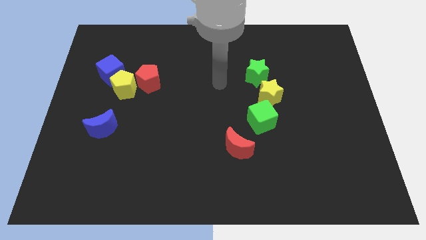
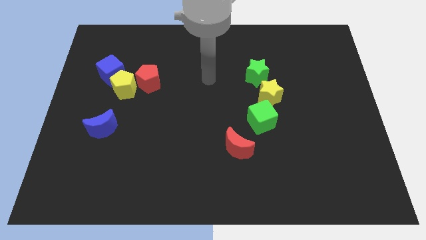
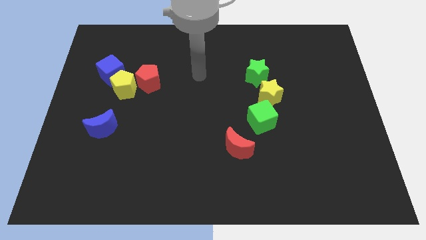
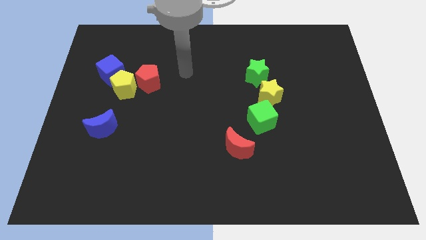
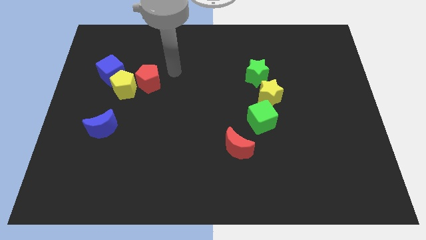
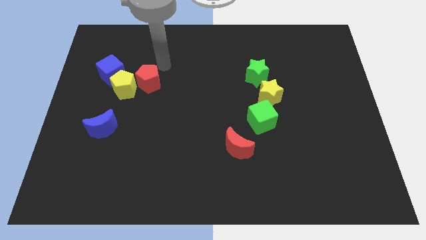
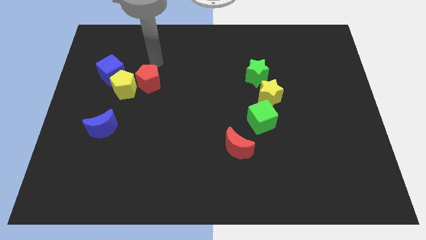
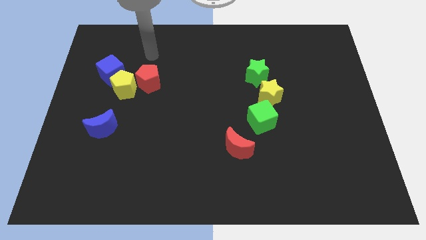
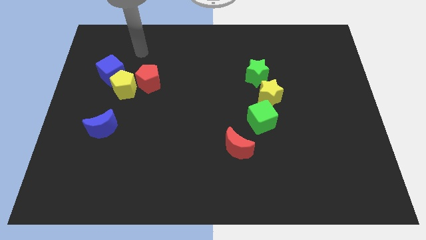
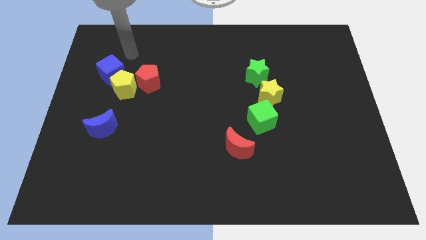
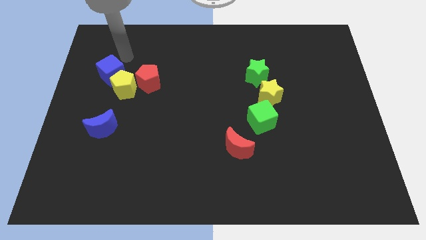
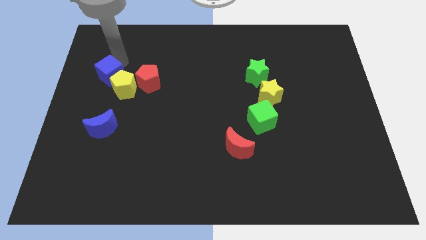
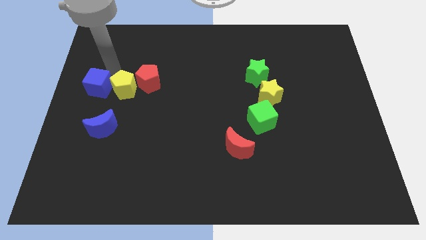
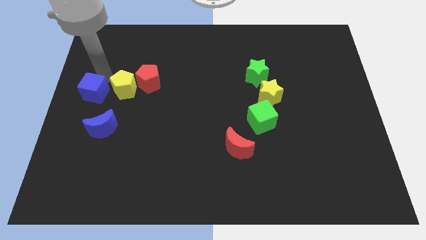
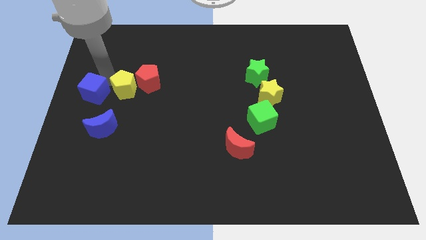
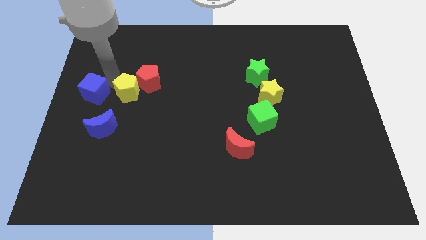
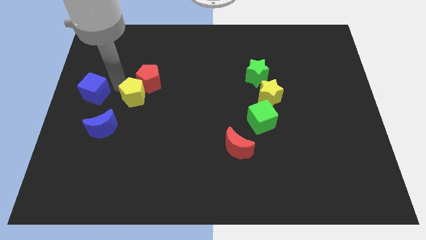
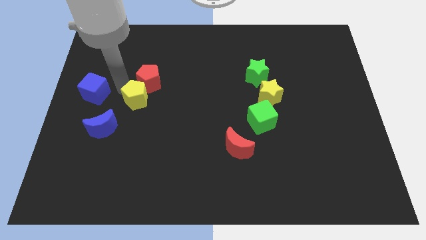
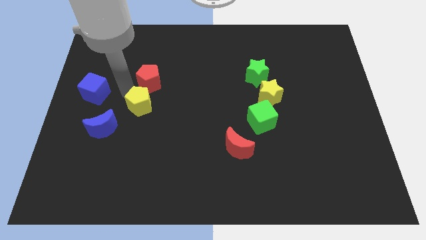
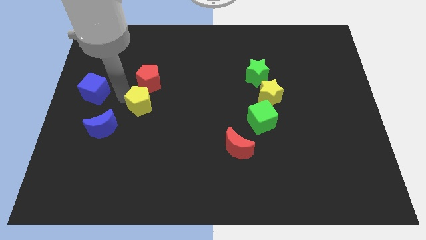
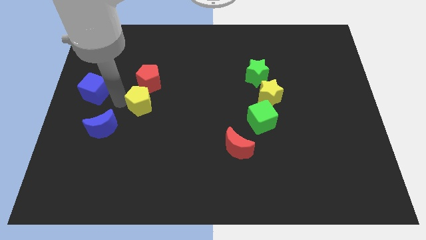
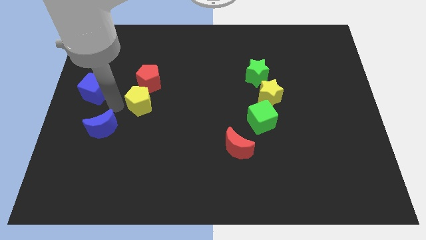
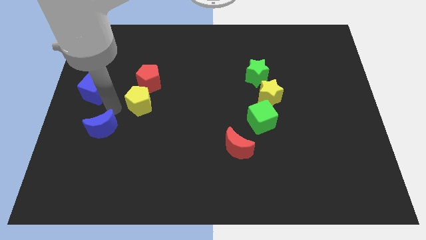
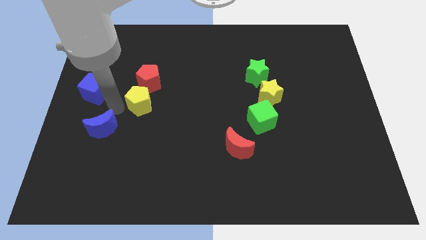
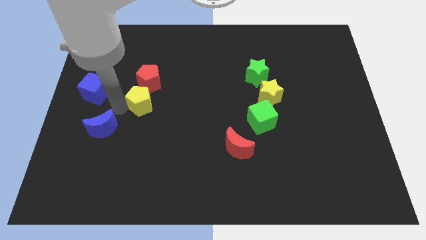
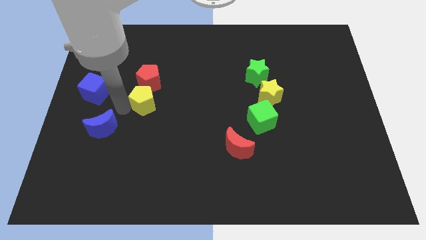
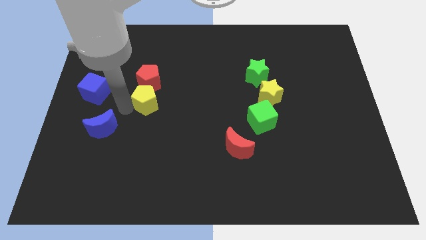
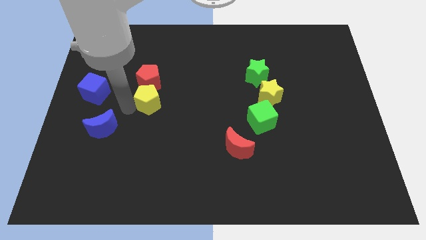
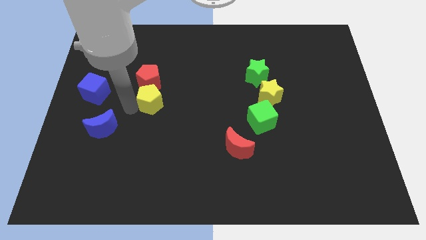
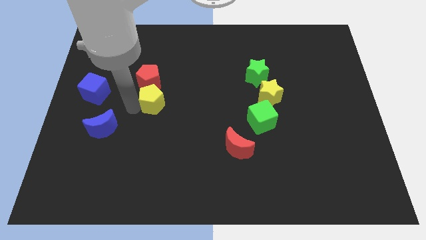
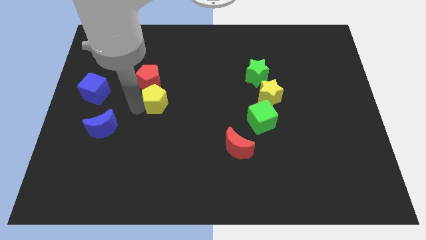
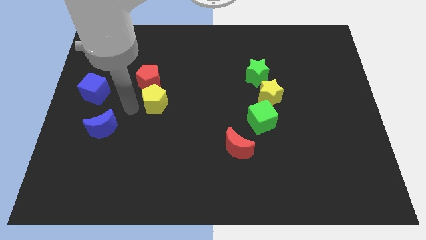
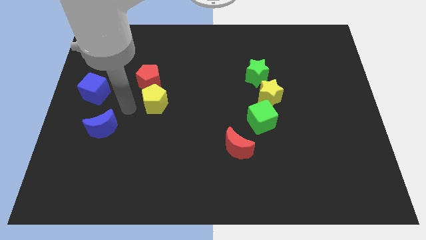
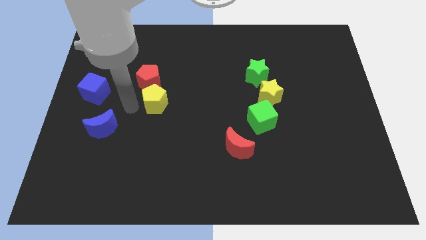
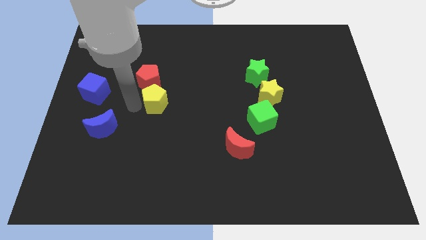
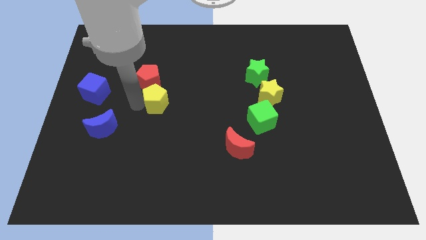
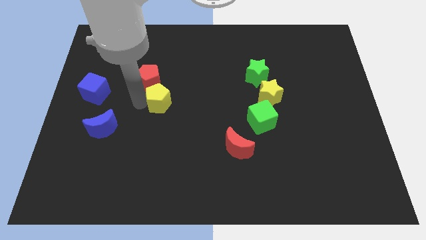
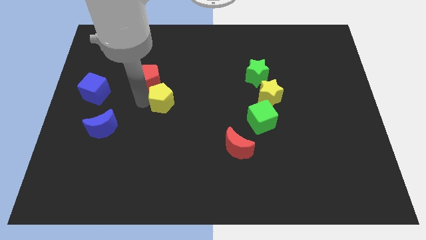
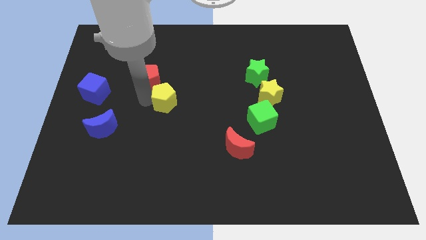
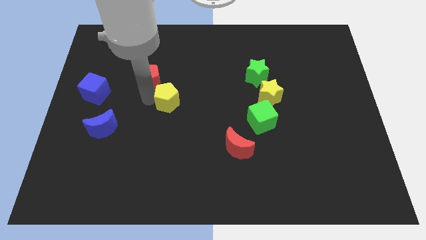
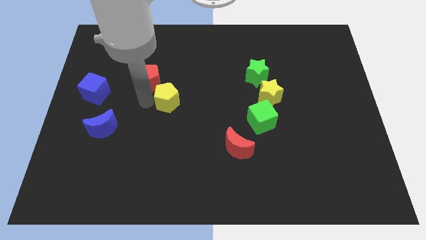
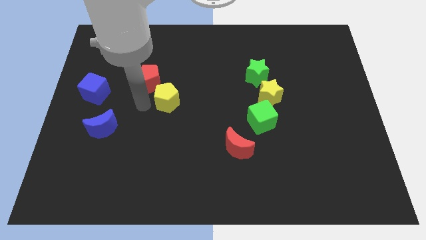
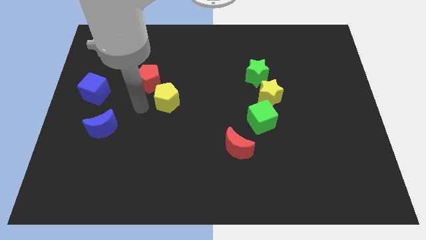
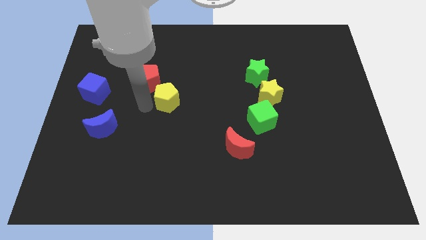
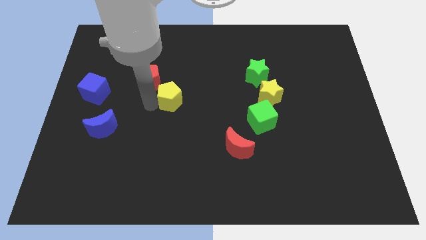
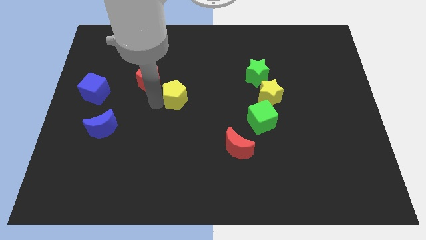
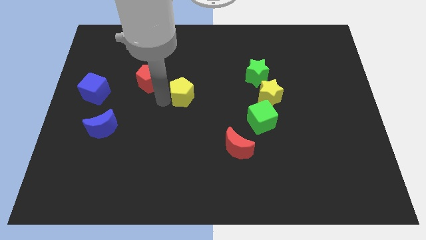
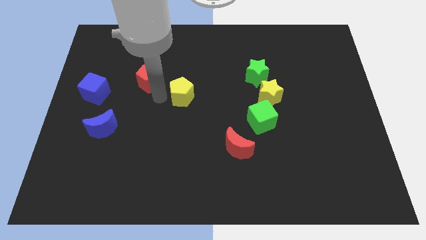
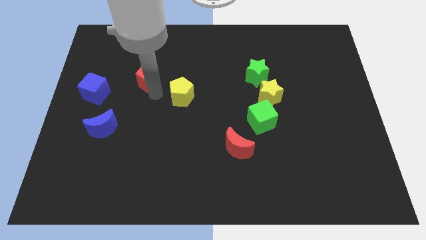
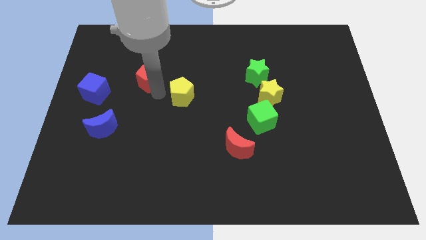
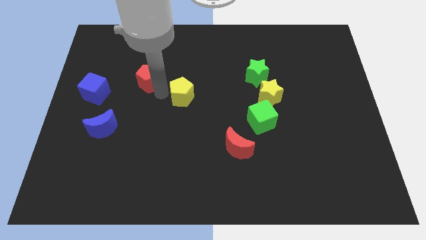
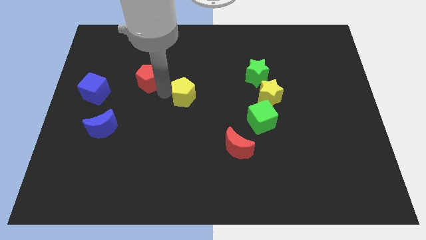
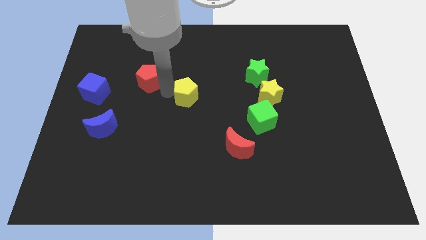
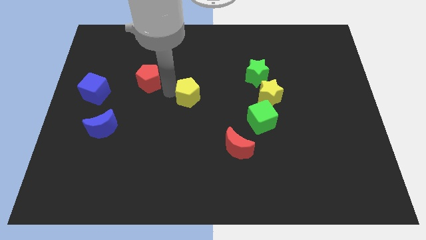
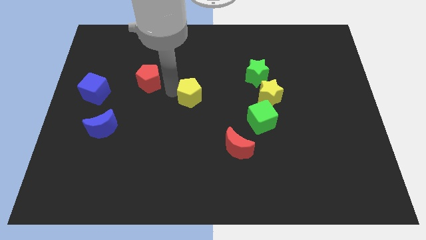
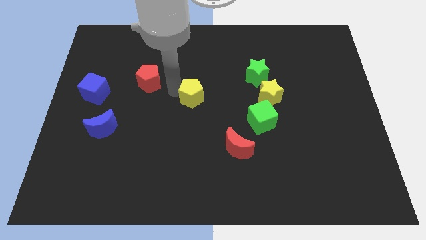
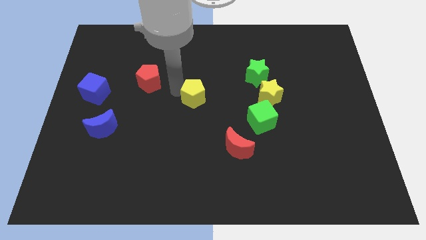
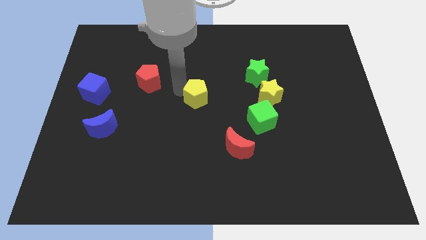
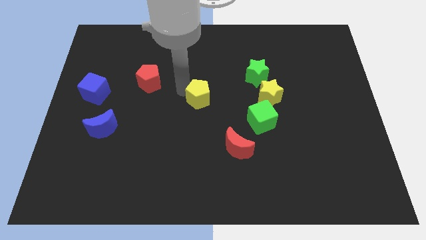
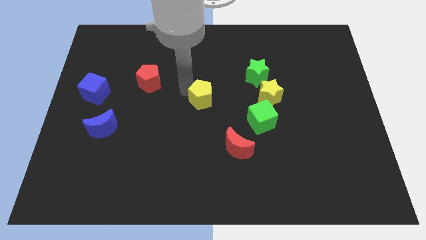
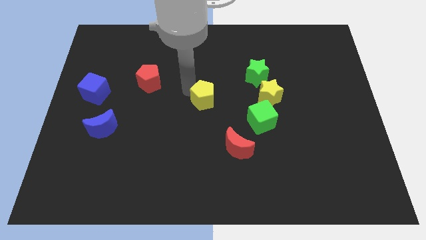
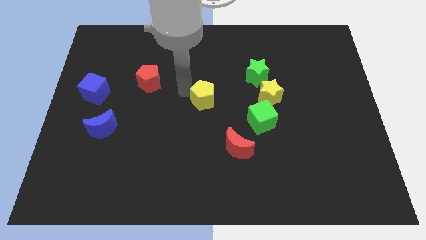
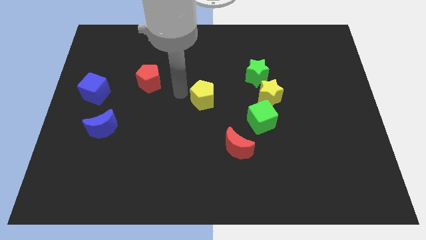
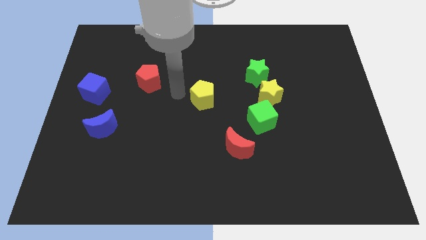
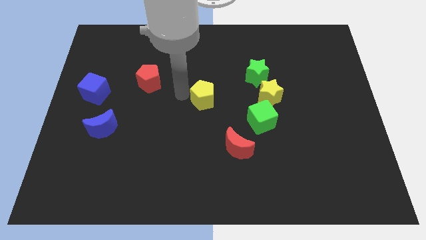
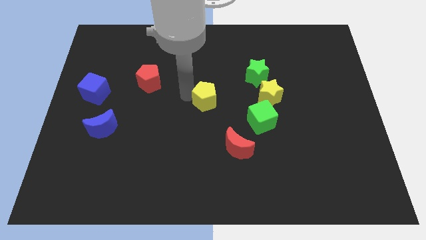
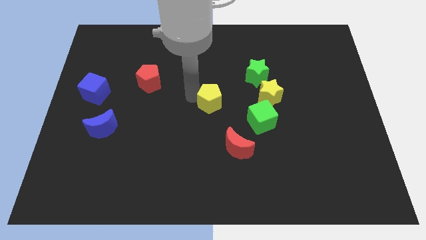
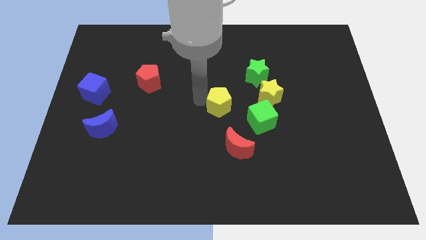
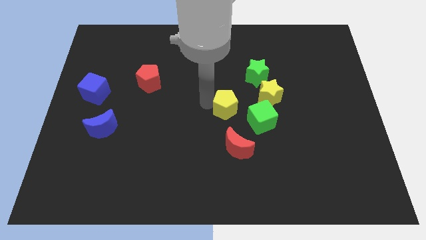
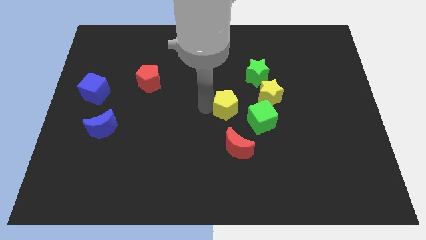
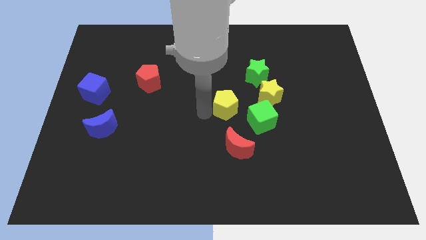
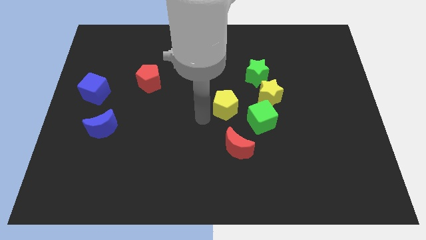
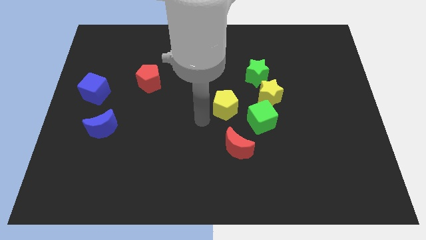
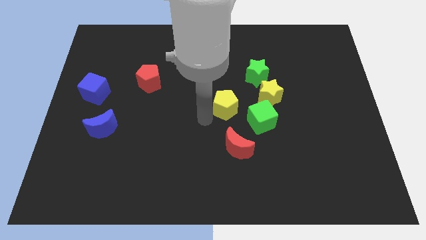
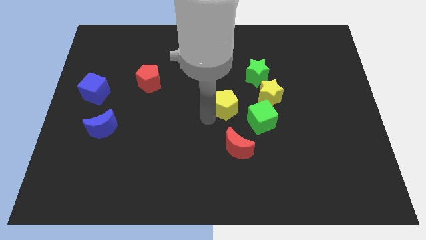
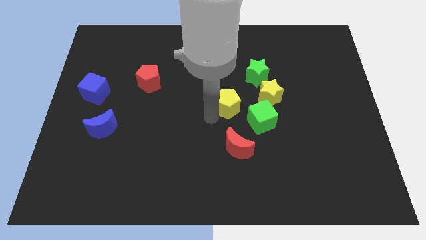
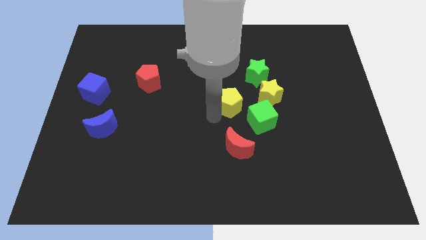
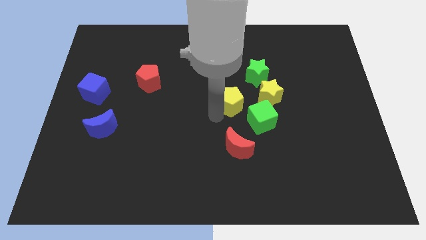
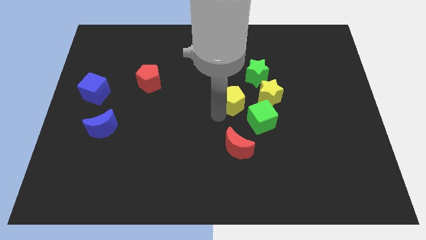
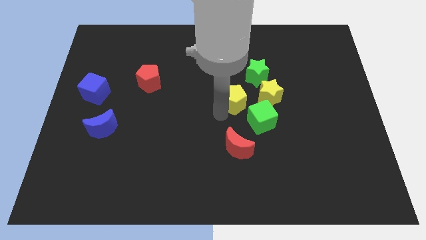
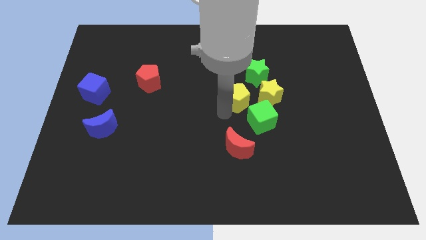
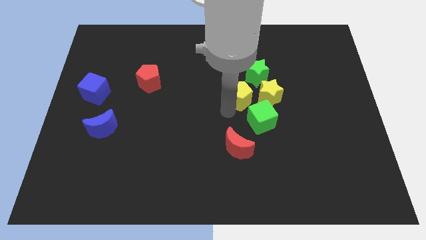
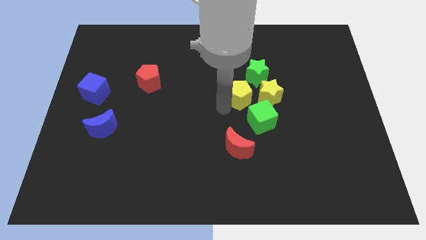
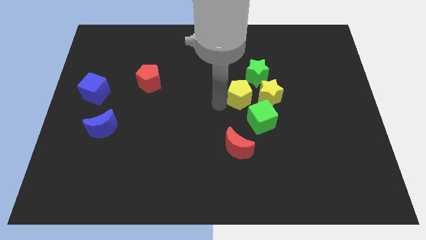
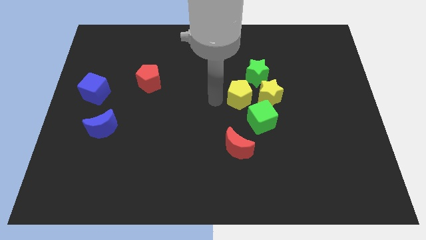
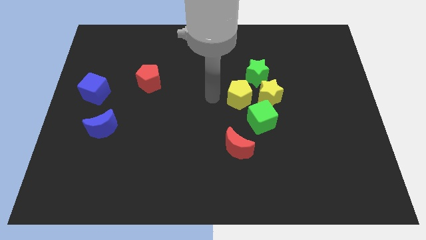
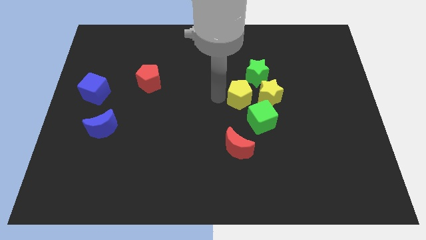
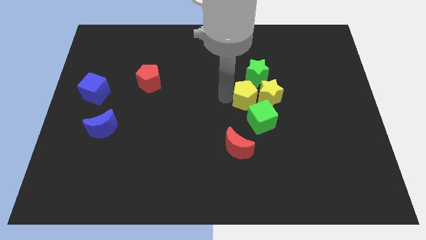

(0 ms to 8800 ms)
move the yellow pentagon close to the yellow star
